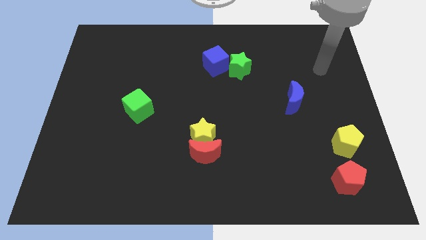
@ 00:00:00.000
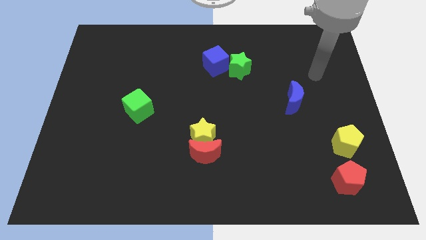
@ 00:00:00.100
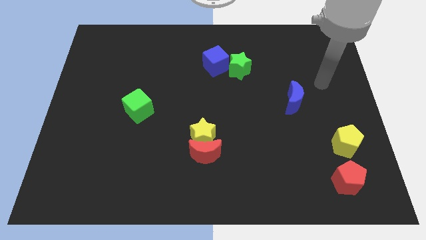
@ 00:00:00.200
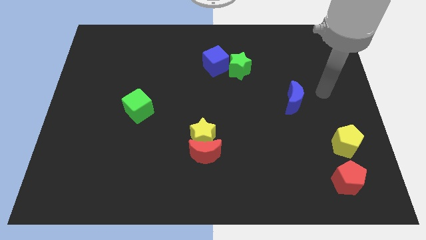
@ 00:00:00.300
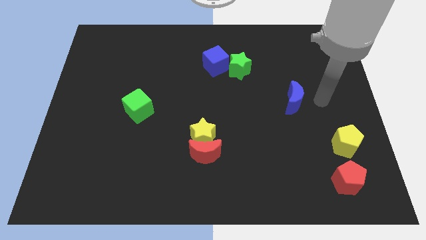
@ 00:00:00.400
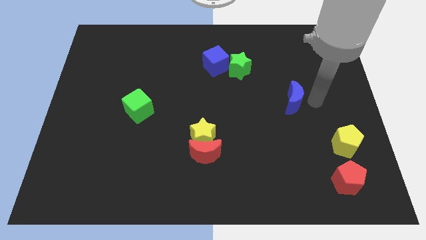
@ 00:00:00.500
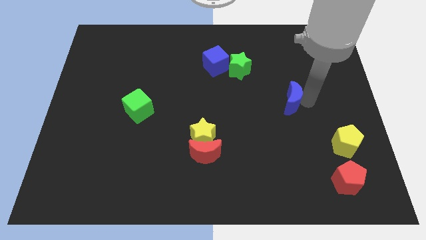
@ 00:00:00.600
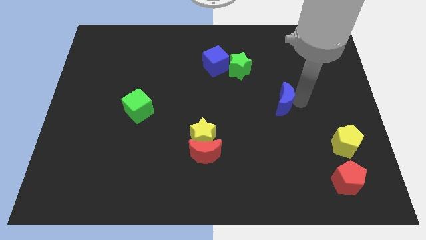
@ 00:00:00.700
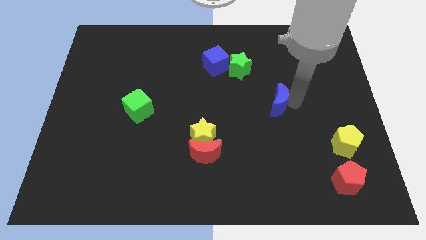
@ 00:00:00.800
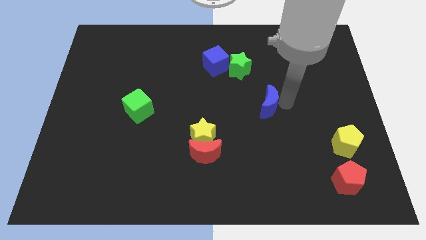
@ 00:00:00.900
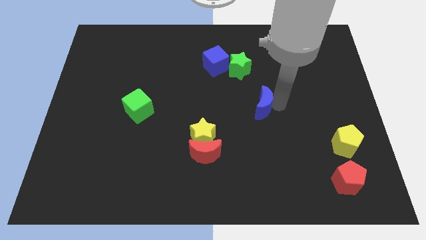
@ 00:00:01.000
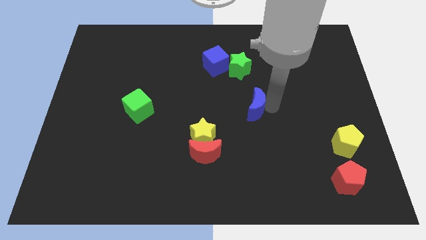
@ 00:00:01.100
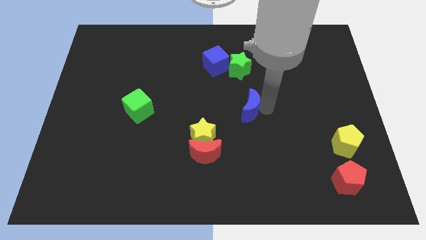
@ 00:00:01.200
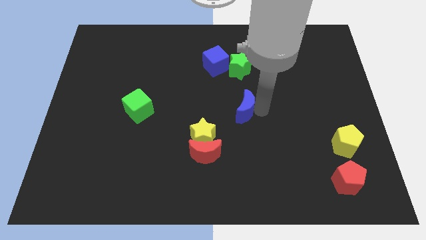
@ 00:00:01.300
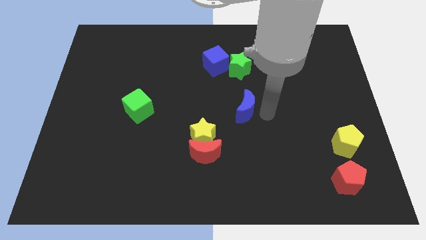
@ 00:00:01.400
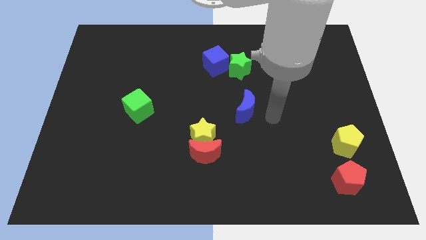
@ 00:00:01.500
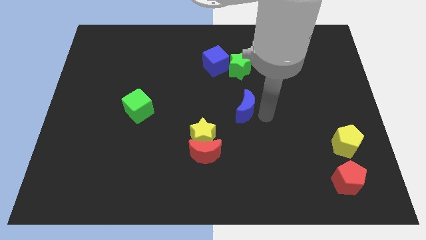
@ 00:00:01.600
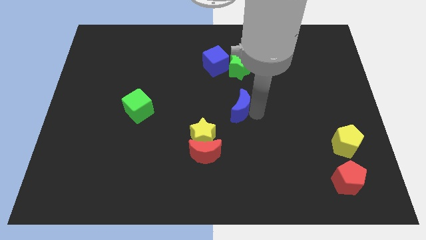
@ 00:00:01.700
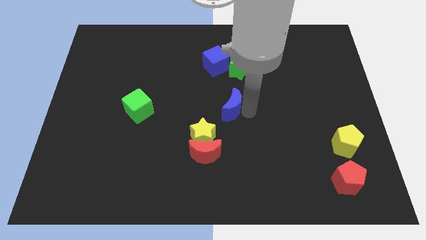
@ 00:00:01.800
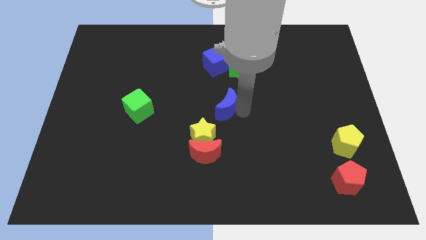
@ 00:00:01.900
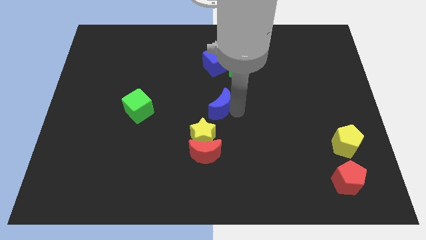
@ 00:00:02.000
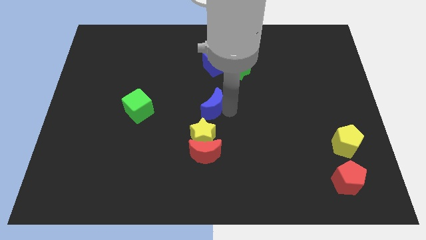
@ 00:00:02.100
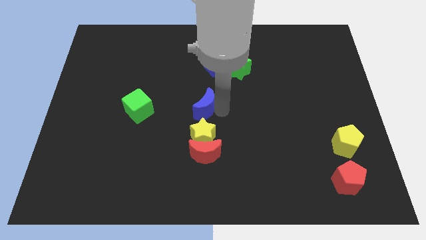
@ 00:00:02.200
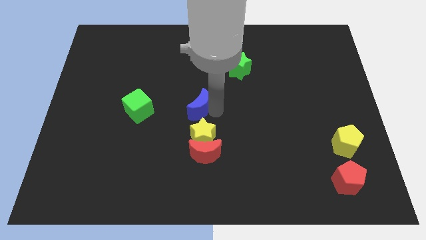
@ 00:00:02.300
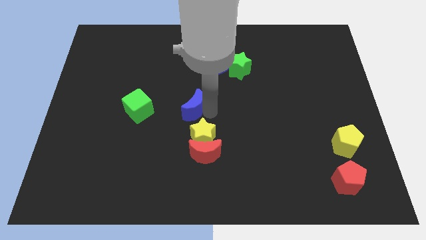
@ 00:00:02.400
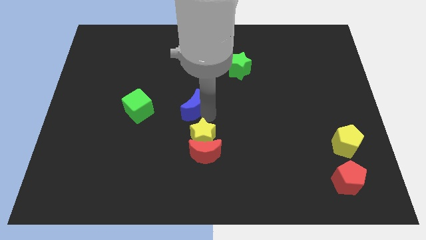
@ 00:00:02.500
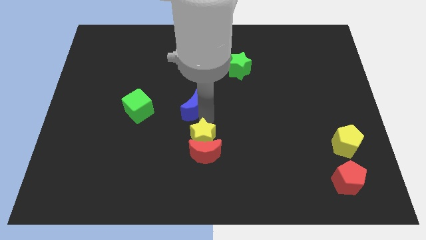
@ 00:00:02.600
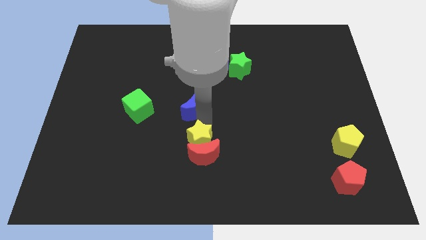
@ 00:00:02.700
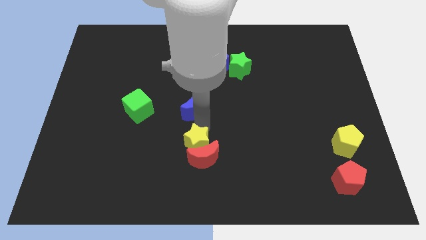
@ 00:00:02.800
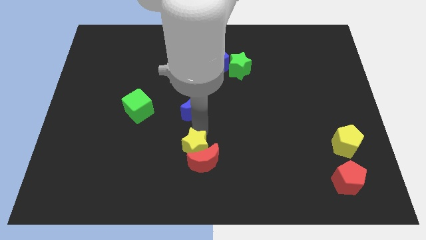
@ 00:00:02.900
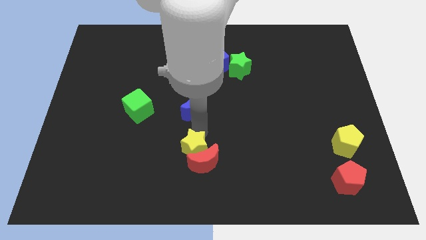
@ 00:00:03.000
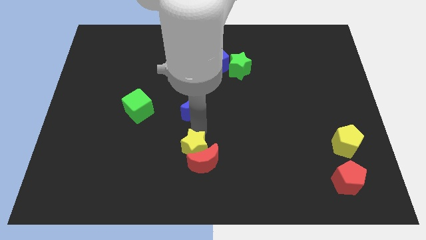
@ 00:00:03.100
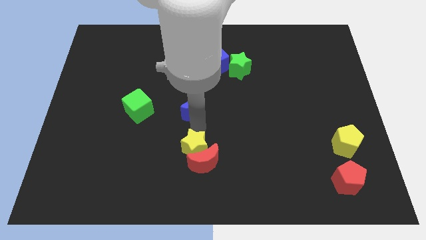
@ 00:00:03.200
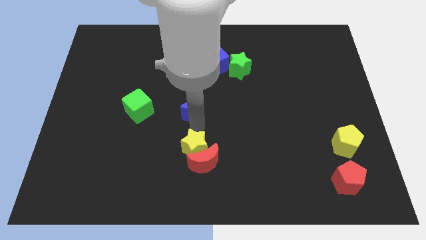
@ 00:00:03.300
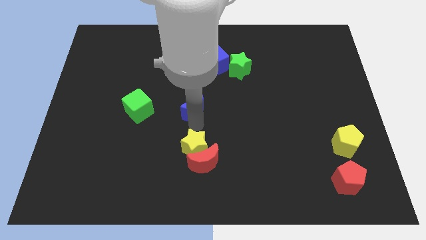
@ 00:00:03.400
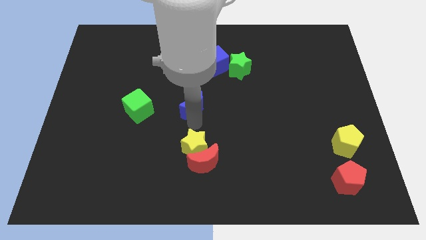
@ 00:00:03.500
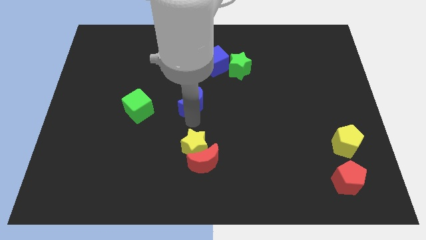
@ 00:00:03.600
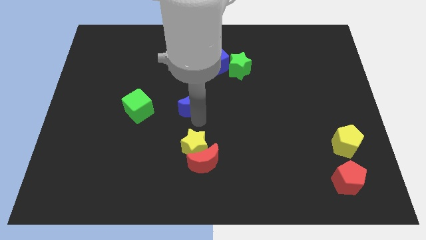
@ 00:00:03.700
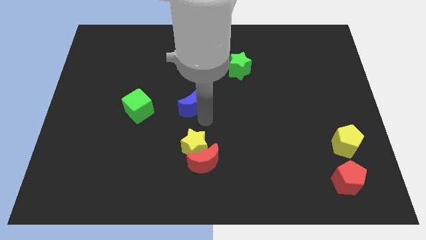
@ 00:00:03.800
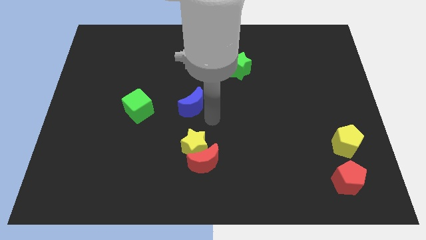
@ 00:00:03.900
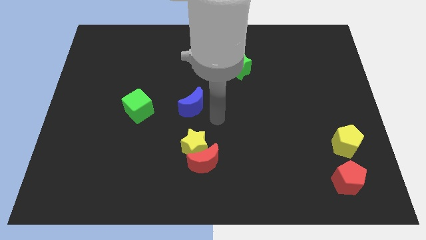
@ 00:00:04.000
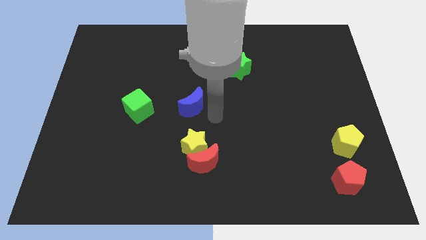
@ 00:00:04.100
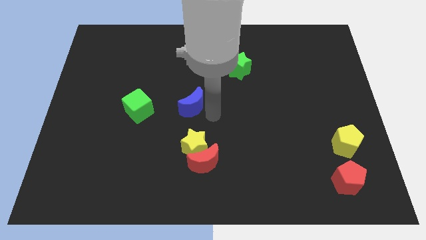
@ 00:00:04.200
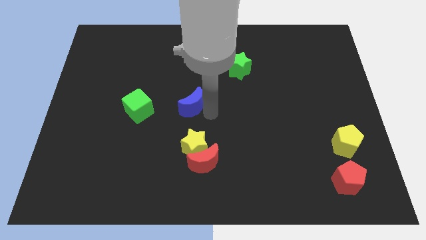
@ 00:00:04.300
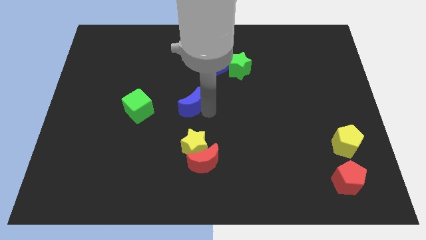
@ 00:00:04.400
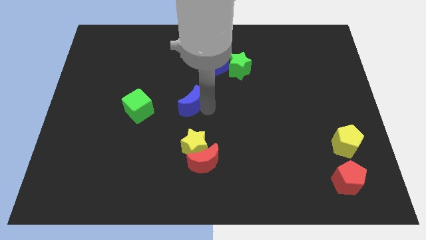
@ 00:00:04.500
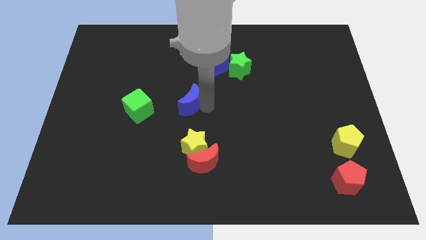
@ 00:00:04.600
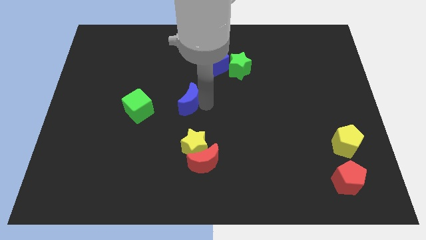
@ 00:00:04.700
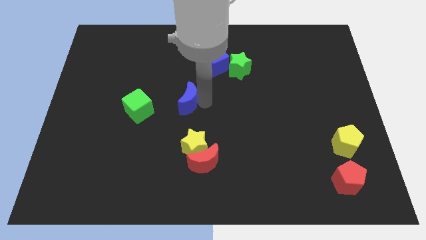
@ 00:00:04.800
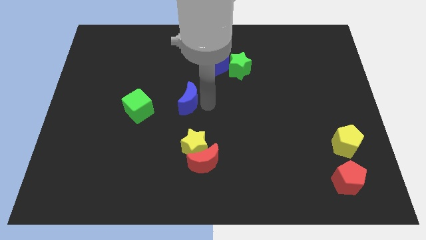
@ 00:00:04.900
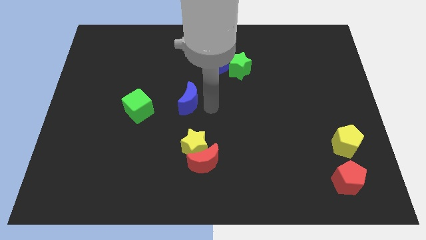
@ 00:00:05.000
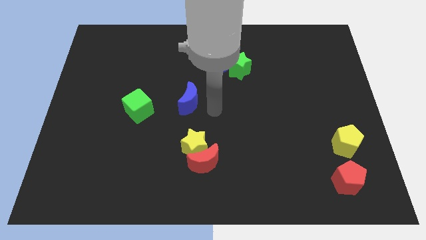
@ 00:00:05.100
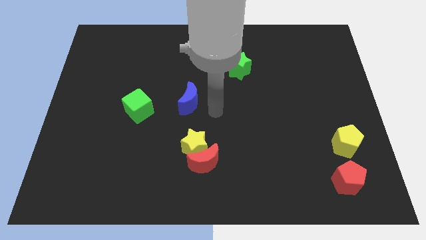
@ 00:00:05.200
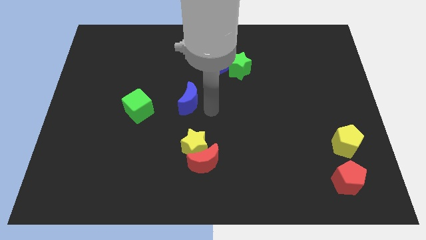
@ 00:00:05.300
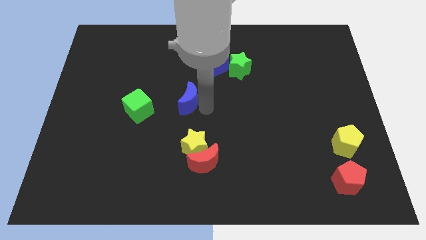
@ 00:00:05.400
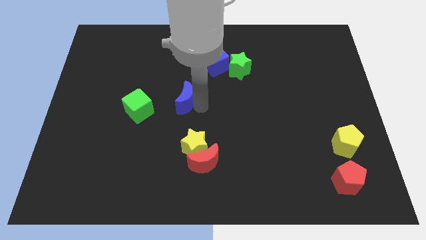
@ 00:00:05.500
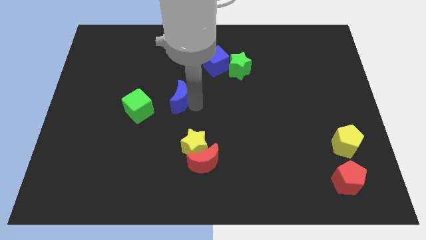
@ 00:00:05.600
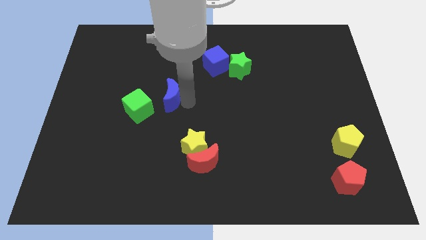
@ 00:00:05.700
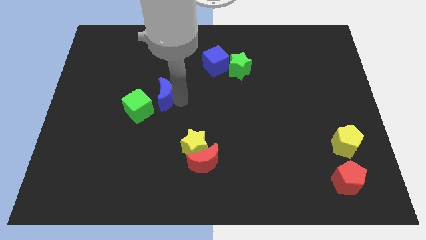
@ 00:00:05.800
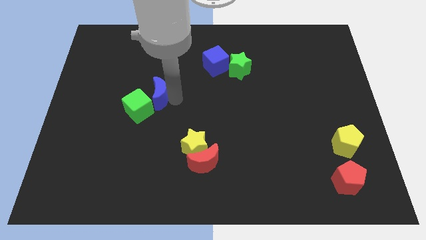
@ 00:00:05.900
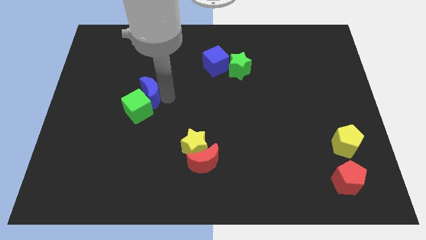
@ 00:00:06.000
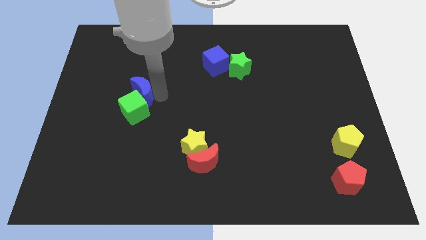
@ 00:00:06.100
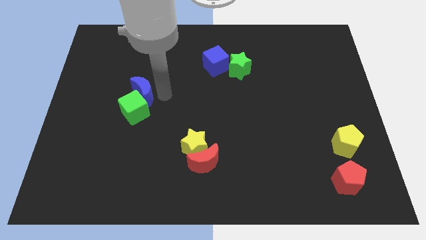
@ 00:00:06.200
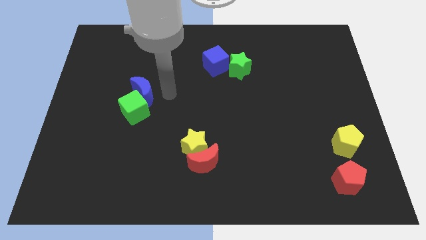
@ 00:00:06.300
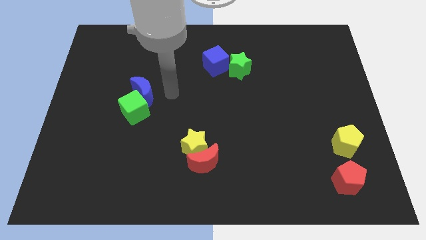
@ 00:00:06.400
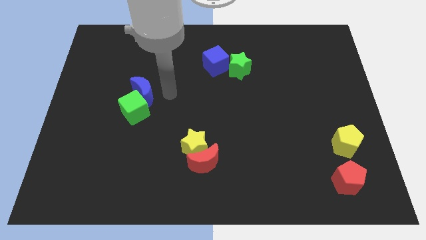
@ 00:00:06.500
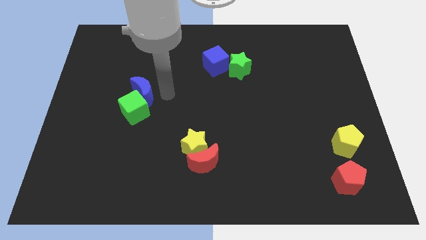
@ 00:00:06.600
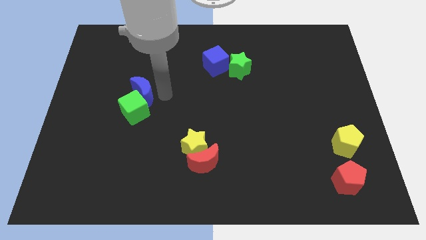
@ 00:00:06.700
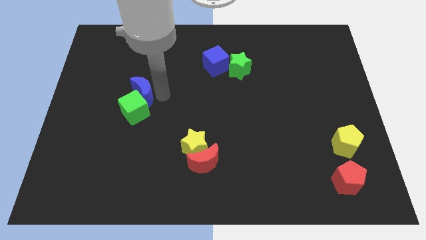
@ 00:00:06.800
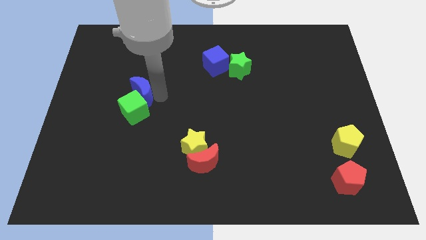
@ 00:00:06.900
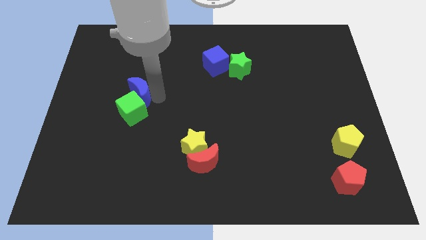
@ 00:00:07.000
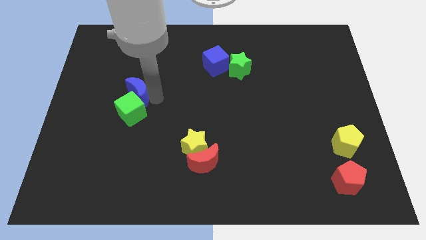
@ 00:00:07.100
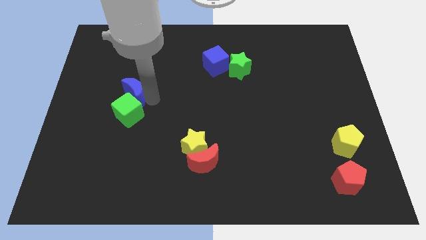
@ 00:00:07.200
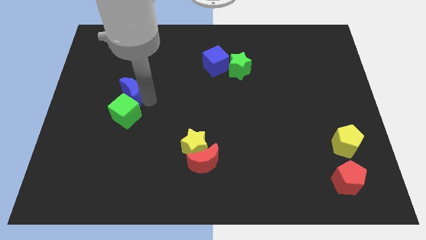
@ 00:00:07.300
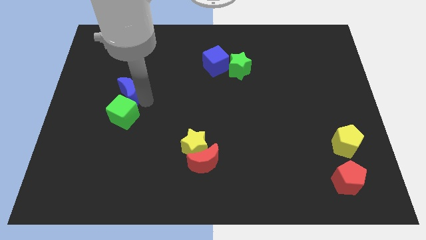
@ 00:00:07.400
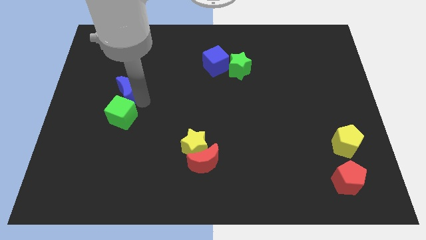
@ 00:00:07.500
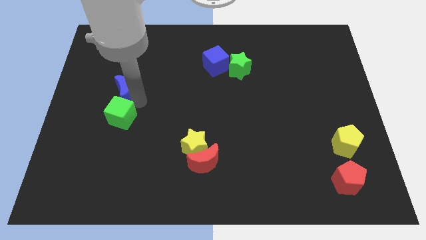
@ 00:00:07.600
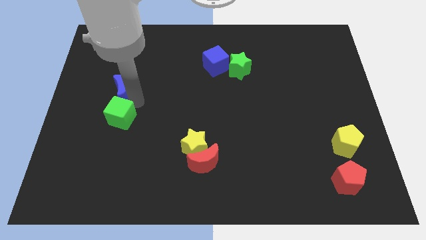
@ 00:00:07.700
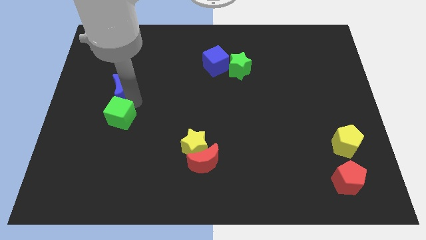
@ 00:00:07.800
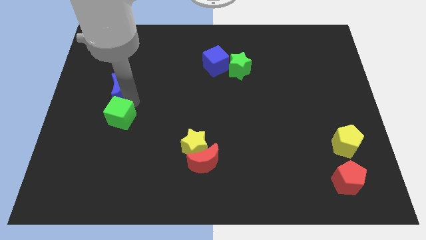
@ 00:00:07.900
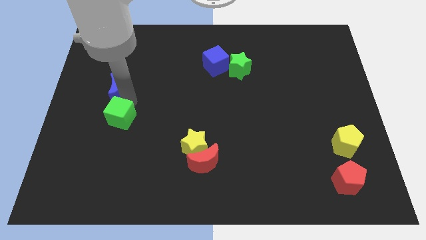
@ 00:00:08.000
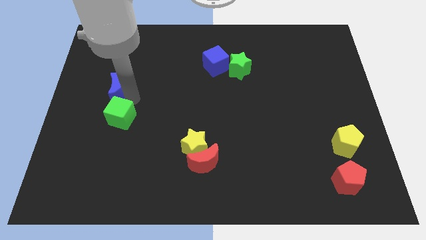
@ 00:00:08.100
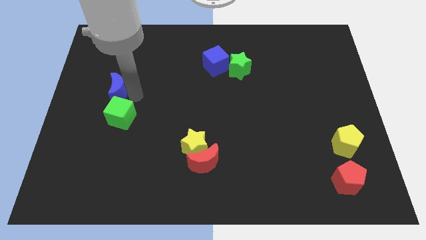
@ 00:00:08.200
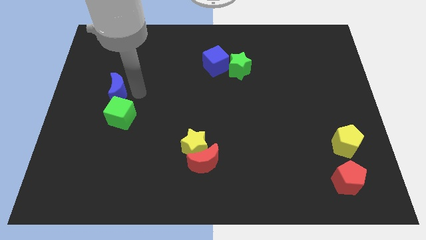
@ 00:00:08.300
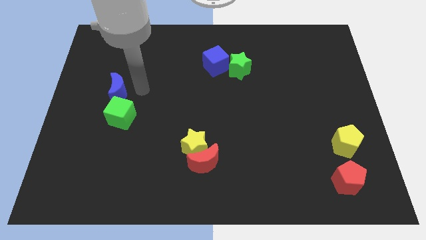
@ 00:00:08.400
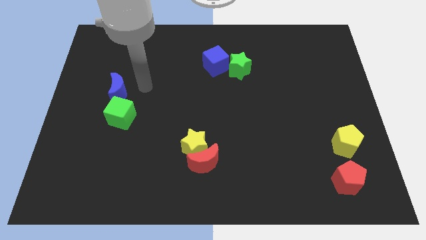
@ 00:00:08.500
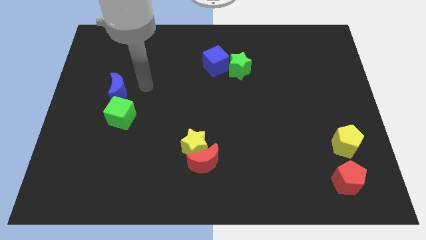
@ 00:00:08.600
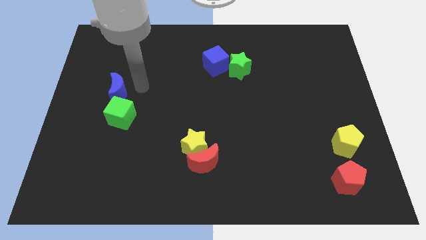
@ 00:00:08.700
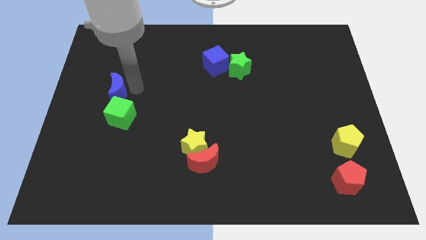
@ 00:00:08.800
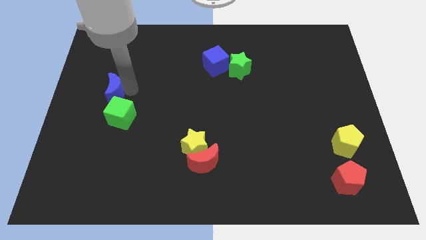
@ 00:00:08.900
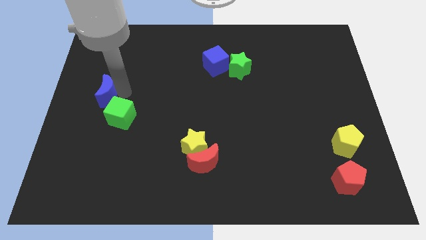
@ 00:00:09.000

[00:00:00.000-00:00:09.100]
push the blue moon to the left side
